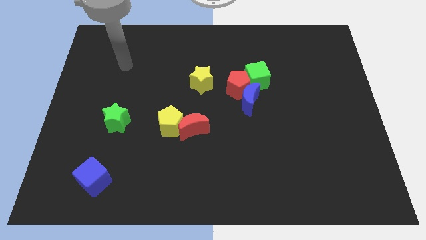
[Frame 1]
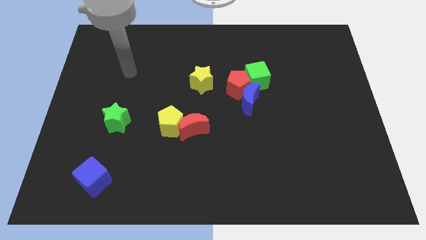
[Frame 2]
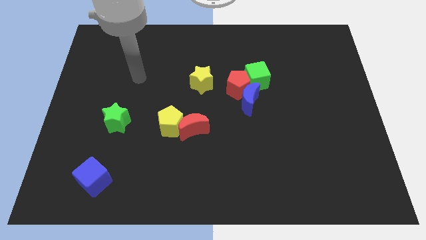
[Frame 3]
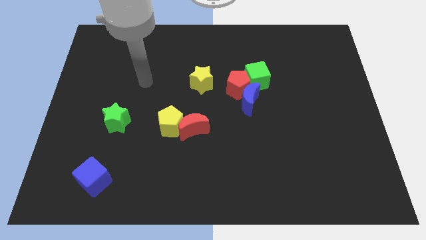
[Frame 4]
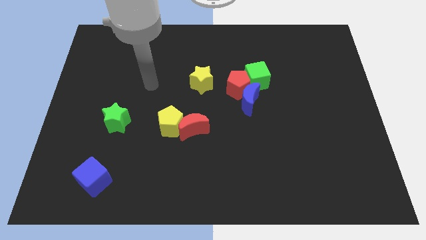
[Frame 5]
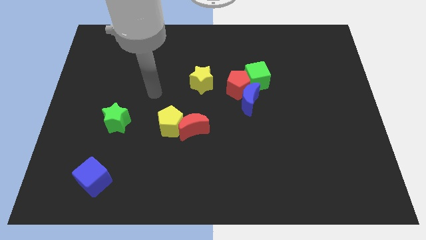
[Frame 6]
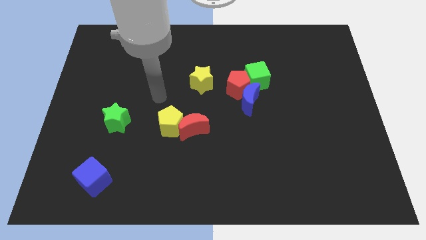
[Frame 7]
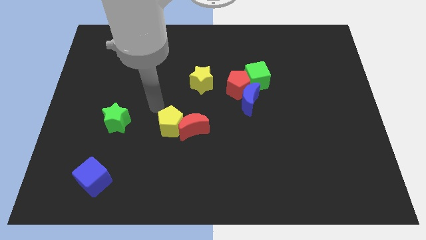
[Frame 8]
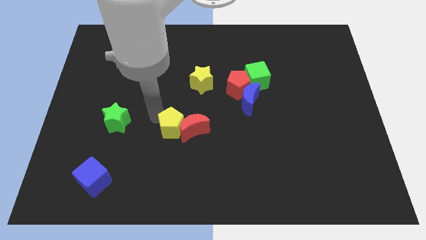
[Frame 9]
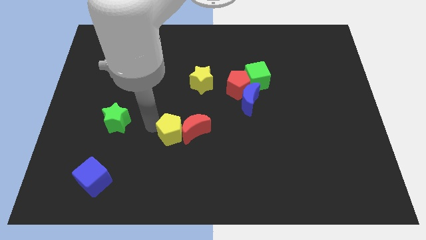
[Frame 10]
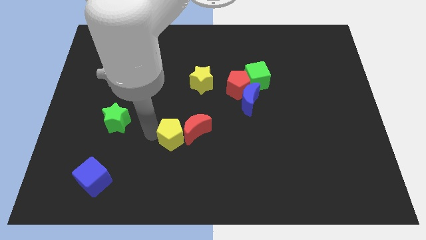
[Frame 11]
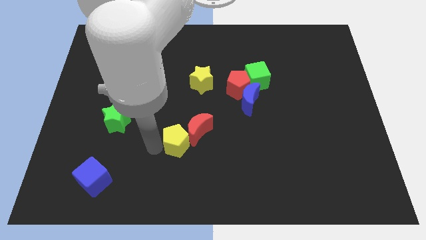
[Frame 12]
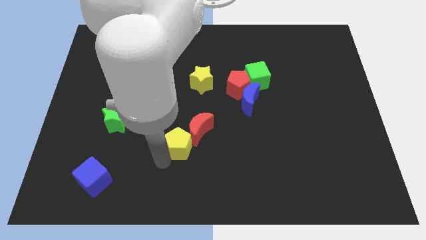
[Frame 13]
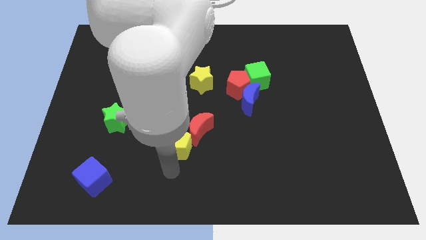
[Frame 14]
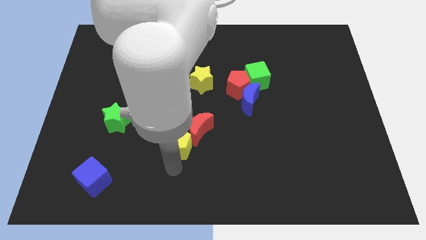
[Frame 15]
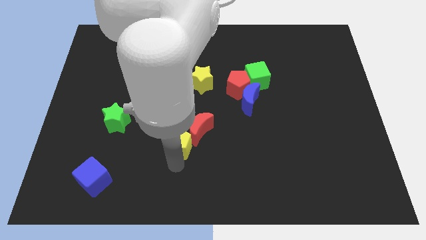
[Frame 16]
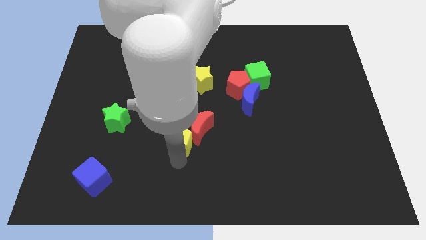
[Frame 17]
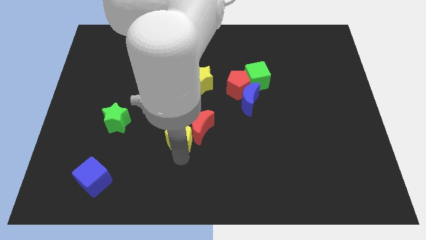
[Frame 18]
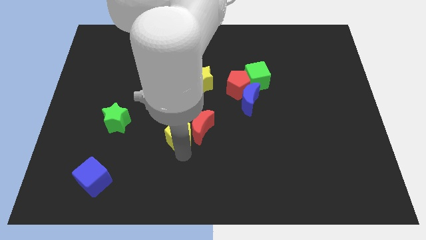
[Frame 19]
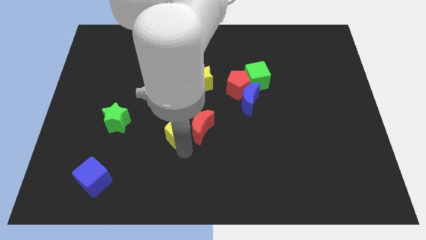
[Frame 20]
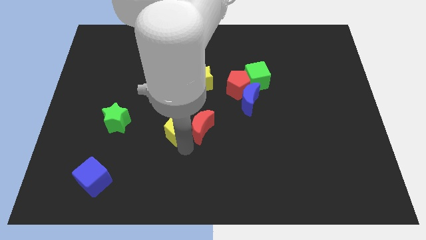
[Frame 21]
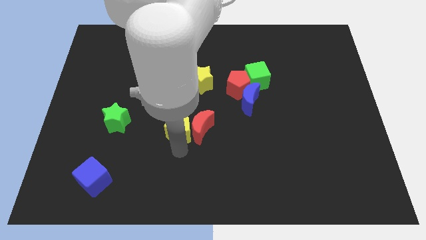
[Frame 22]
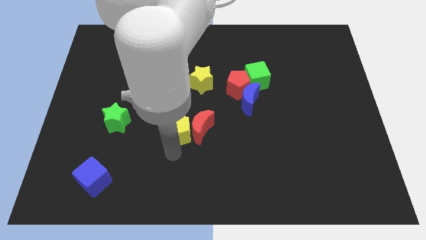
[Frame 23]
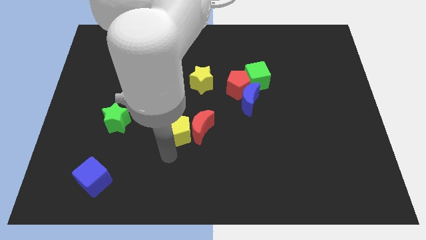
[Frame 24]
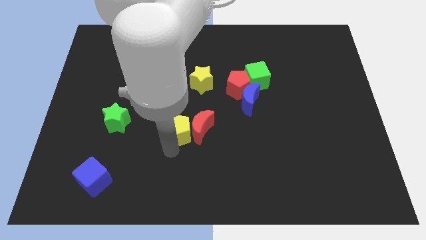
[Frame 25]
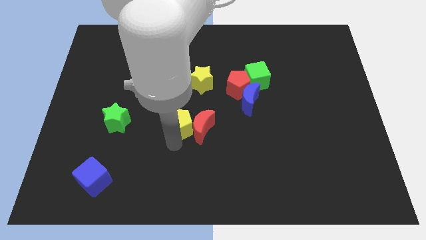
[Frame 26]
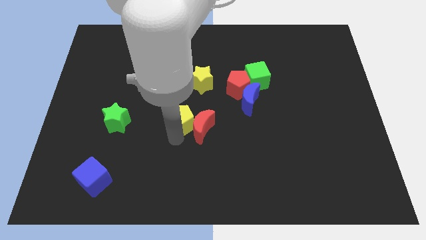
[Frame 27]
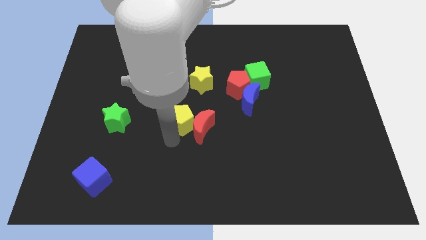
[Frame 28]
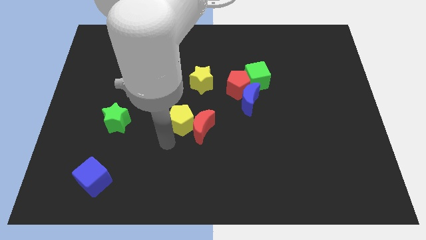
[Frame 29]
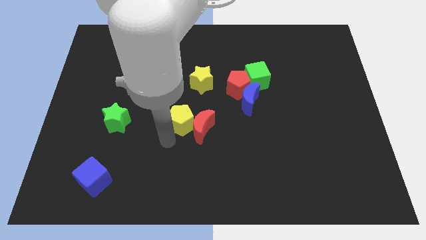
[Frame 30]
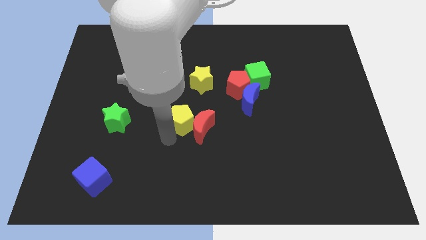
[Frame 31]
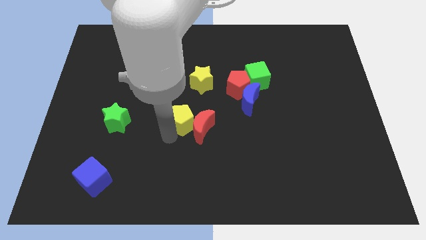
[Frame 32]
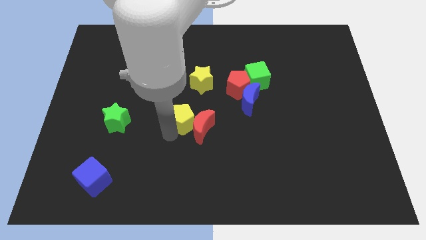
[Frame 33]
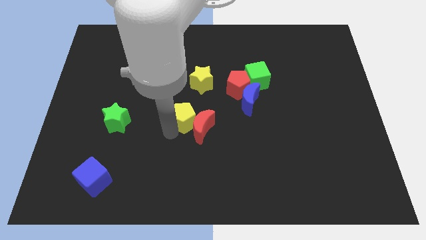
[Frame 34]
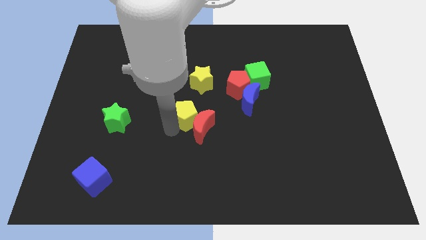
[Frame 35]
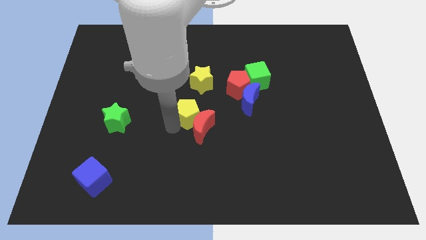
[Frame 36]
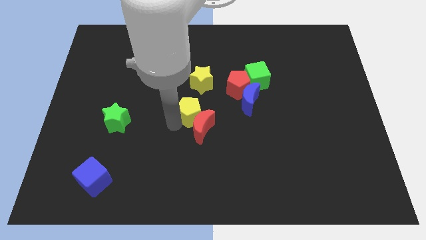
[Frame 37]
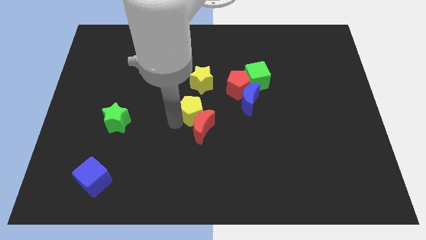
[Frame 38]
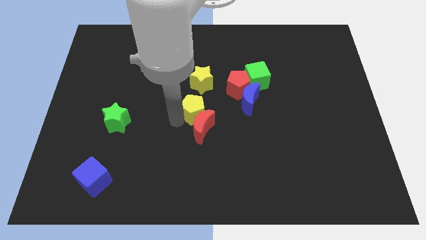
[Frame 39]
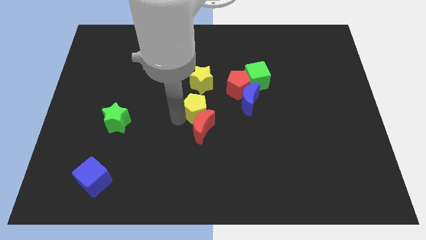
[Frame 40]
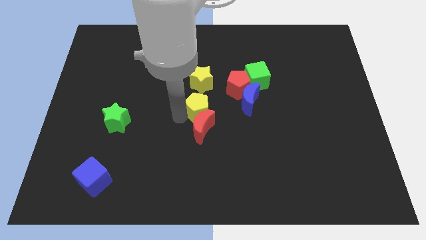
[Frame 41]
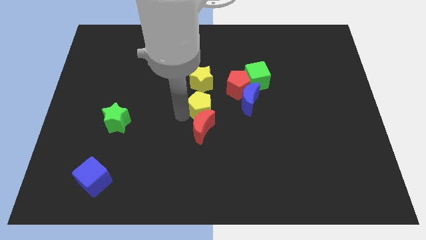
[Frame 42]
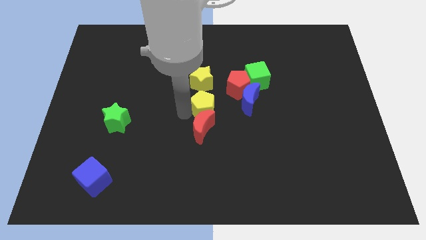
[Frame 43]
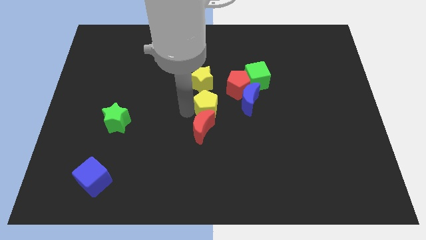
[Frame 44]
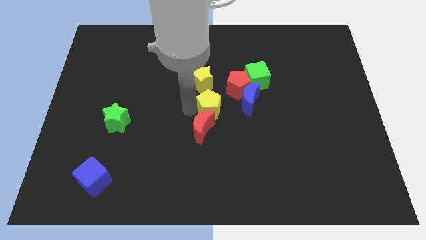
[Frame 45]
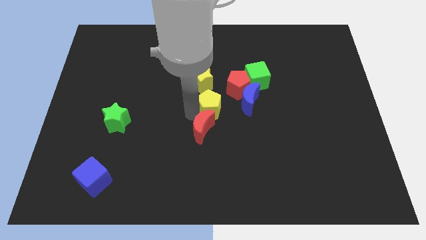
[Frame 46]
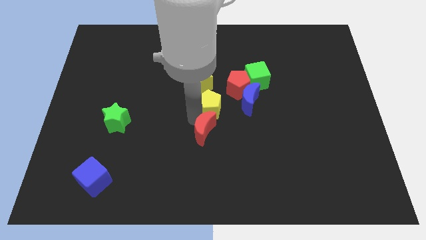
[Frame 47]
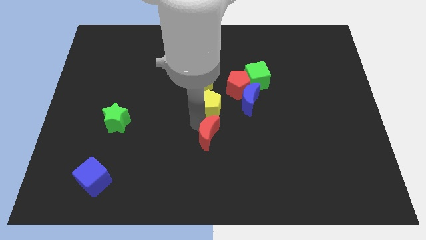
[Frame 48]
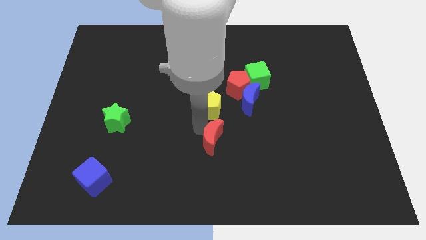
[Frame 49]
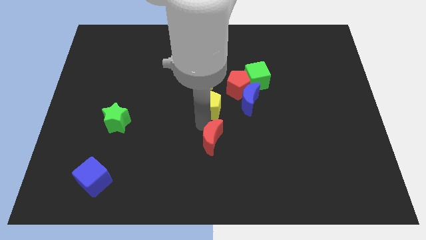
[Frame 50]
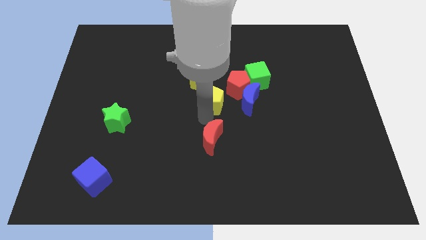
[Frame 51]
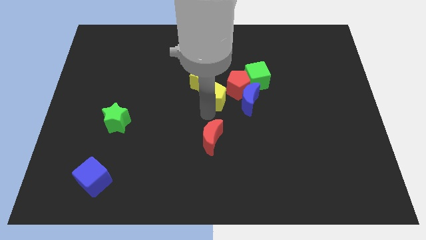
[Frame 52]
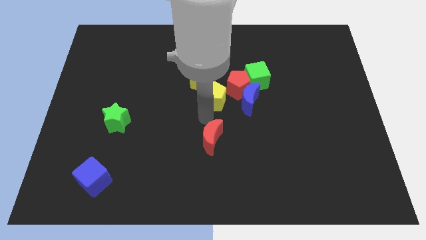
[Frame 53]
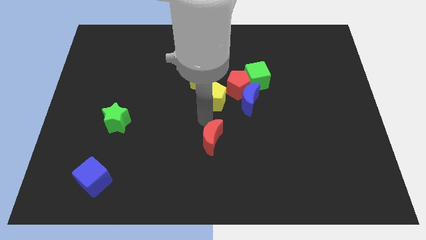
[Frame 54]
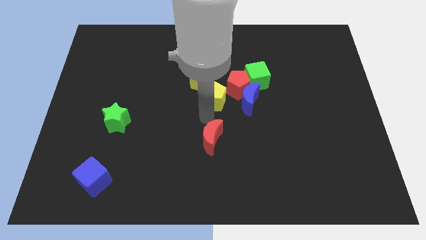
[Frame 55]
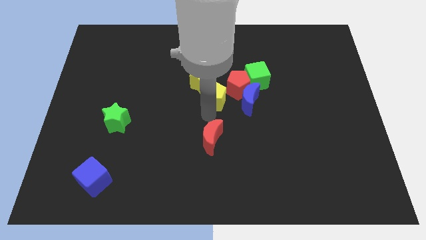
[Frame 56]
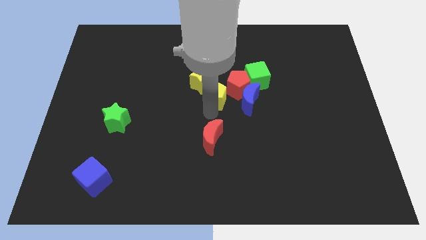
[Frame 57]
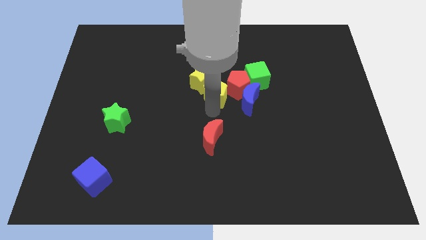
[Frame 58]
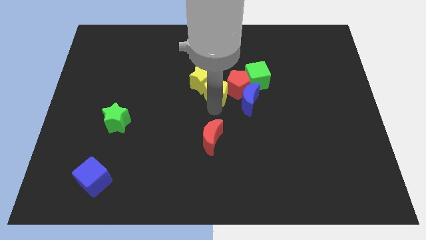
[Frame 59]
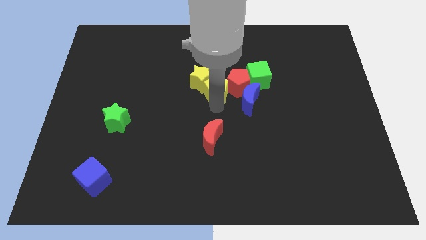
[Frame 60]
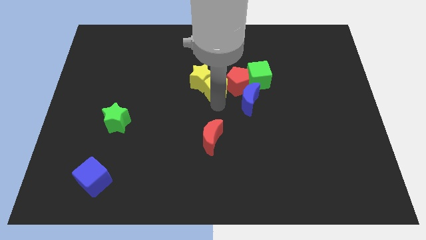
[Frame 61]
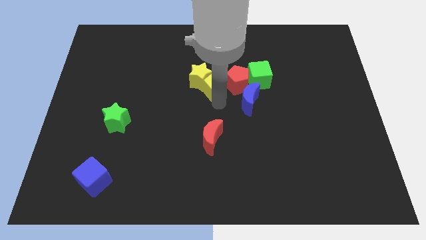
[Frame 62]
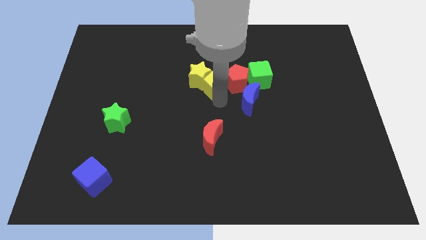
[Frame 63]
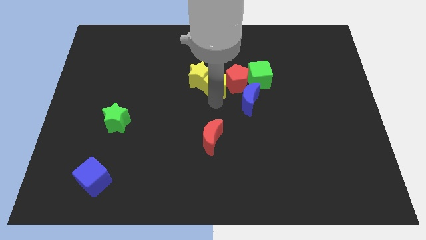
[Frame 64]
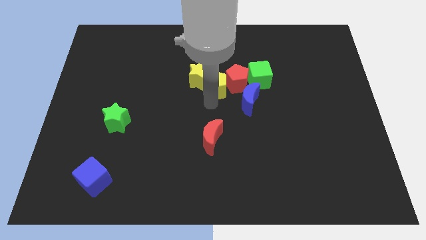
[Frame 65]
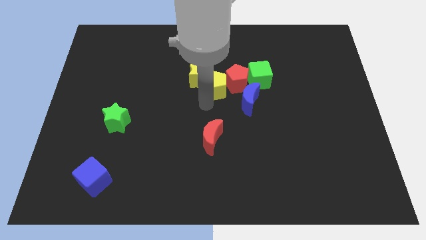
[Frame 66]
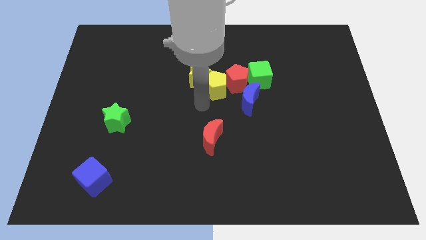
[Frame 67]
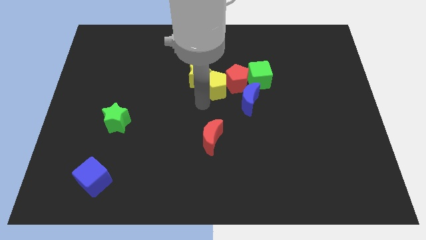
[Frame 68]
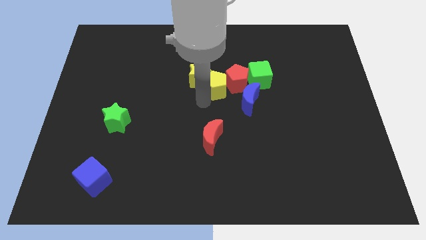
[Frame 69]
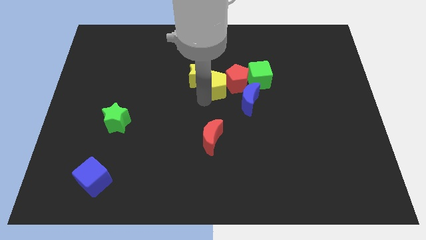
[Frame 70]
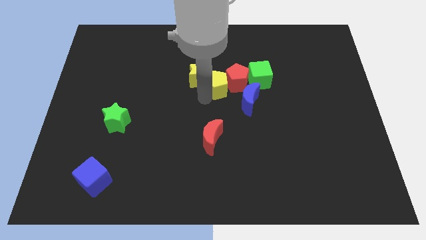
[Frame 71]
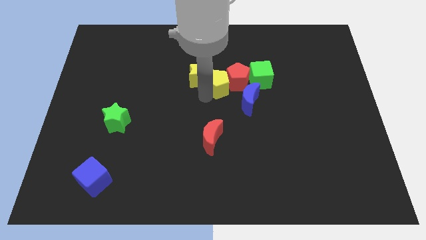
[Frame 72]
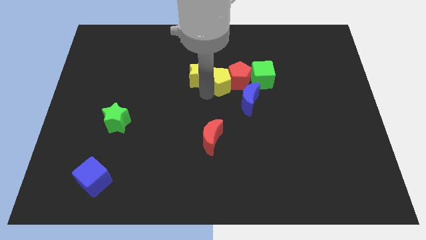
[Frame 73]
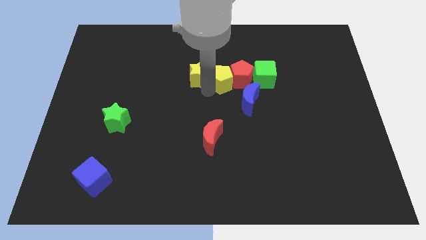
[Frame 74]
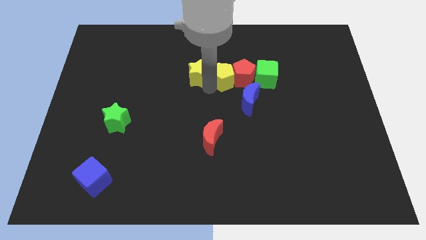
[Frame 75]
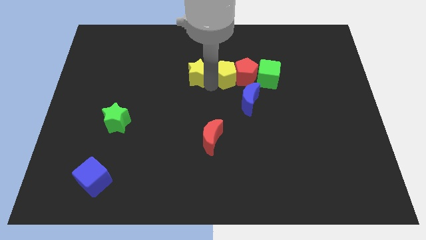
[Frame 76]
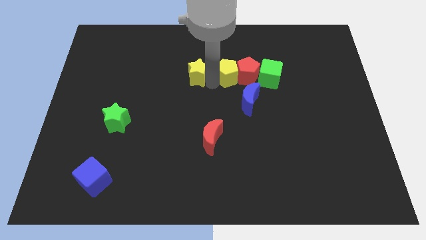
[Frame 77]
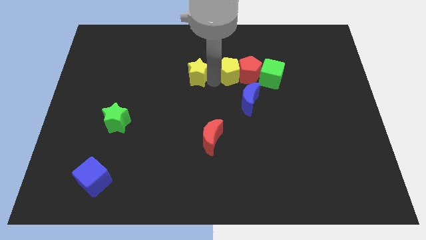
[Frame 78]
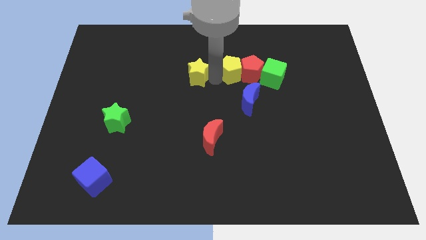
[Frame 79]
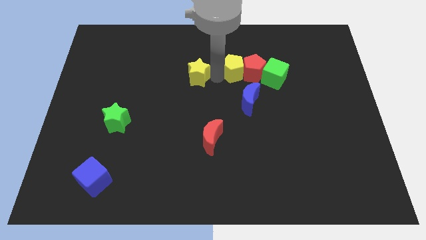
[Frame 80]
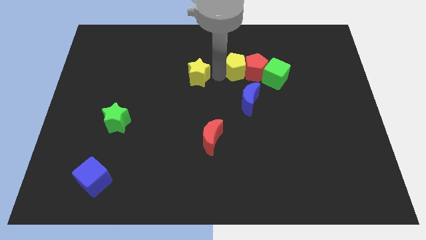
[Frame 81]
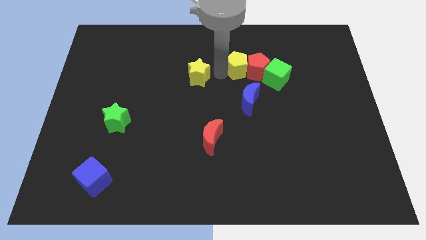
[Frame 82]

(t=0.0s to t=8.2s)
slide the yellow pentagon to the top left of the green cube

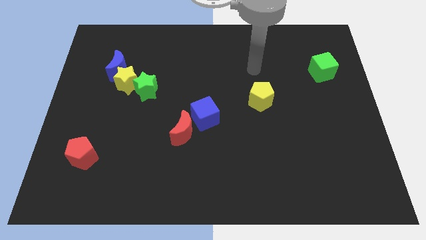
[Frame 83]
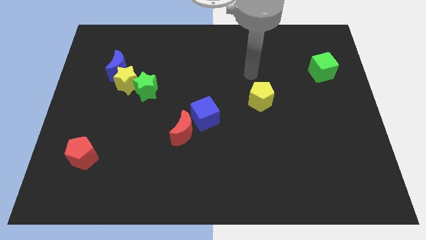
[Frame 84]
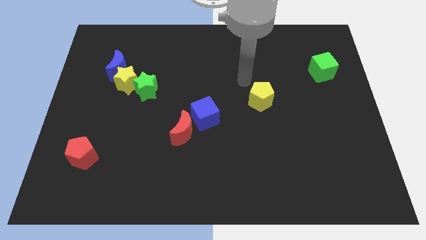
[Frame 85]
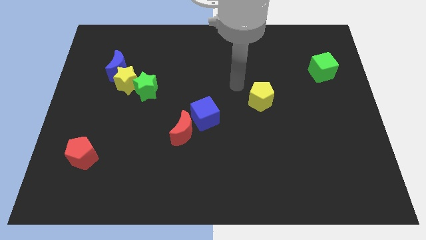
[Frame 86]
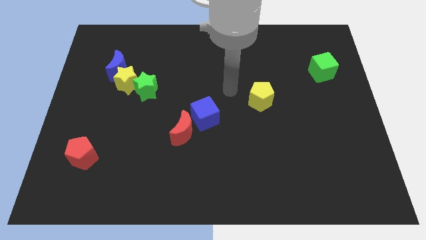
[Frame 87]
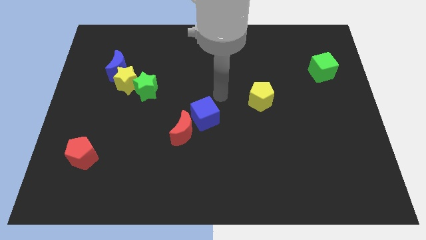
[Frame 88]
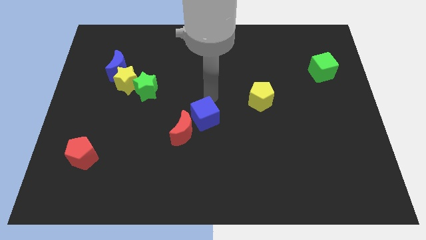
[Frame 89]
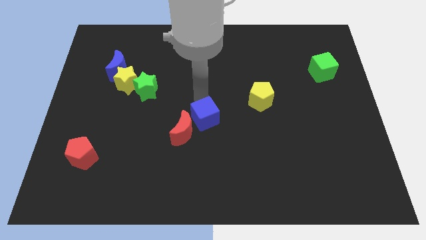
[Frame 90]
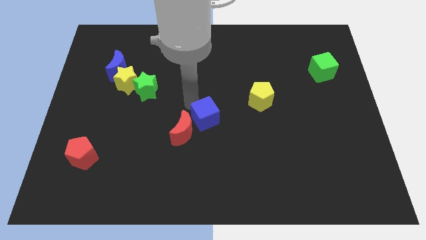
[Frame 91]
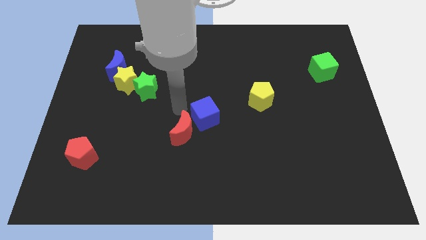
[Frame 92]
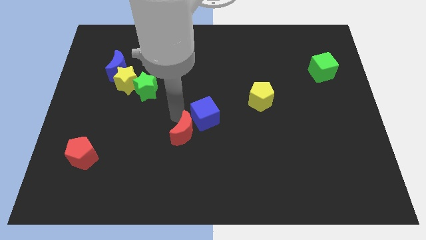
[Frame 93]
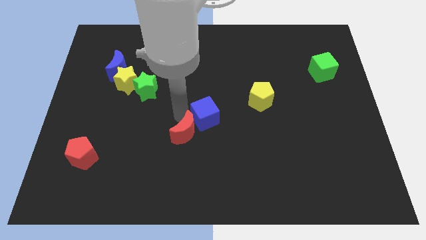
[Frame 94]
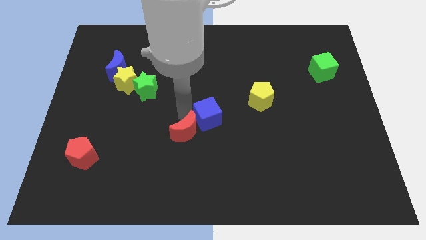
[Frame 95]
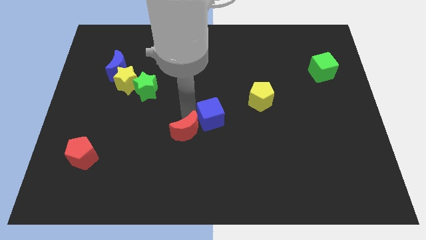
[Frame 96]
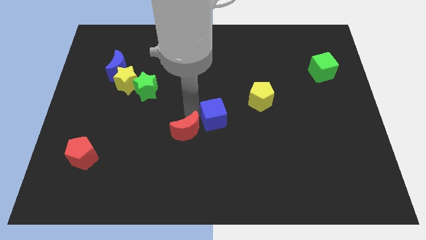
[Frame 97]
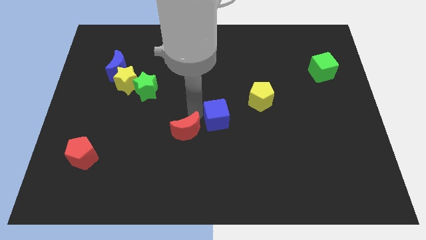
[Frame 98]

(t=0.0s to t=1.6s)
put the blue cube to the bottom left of the yellow pentagon
